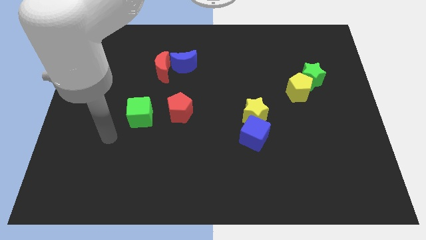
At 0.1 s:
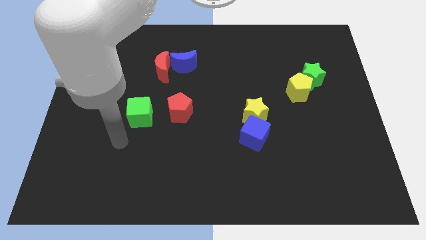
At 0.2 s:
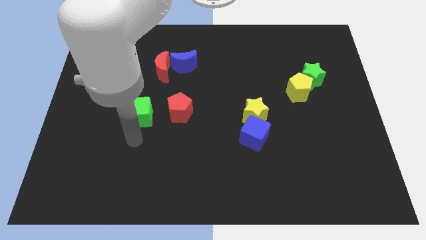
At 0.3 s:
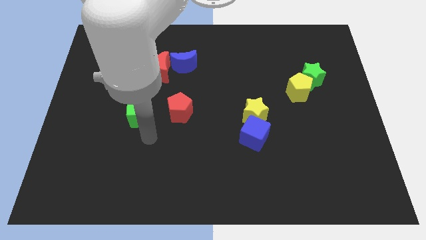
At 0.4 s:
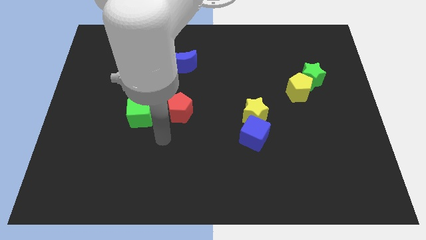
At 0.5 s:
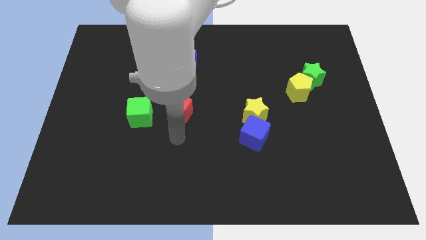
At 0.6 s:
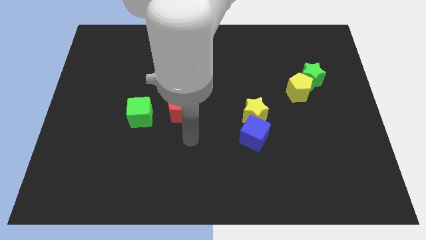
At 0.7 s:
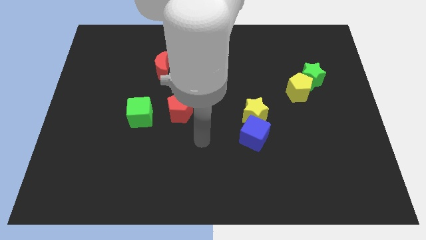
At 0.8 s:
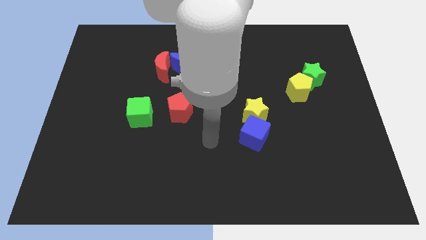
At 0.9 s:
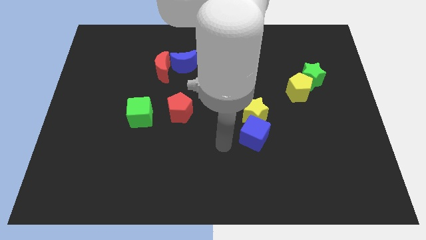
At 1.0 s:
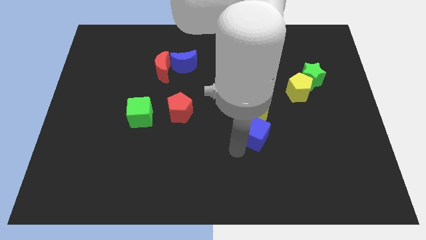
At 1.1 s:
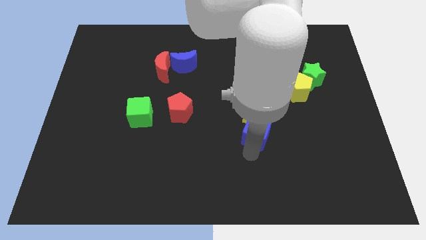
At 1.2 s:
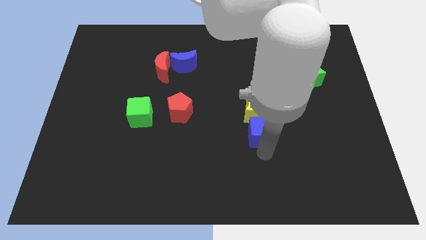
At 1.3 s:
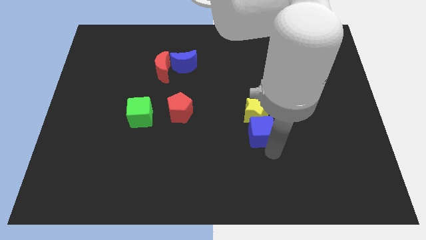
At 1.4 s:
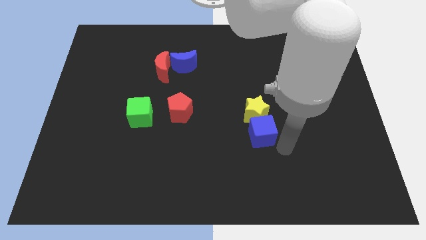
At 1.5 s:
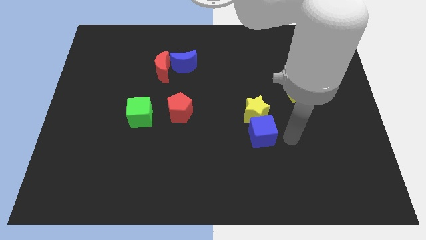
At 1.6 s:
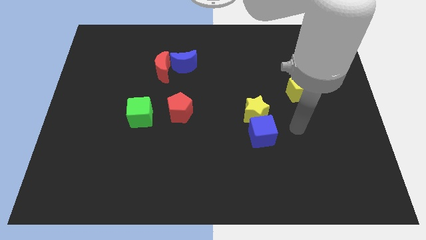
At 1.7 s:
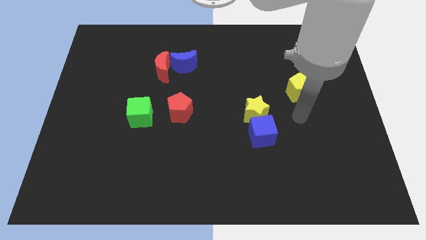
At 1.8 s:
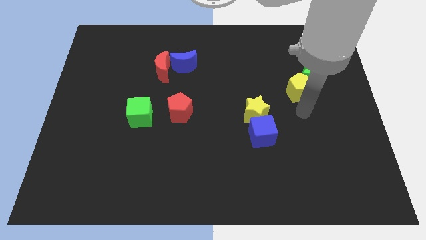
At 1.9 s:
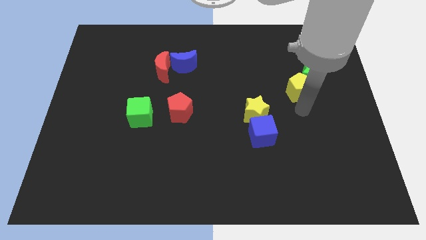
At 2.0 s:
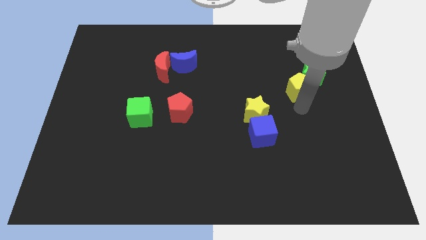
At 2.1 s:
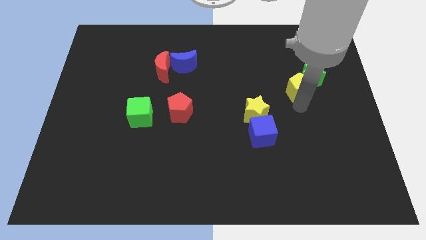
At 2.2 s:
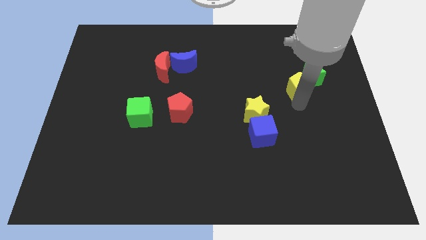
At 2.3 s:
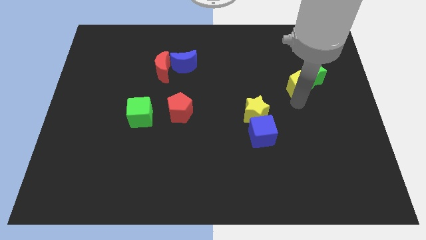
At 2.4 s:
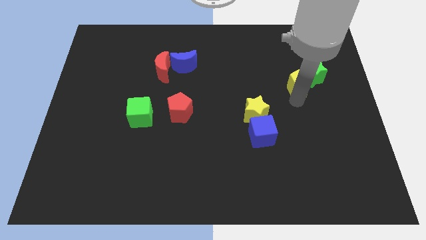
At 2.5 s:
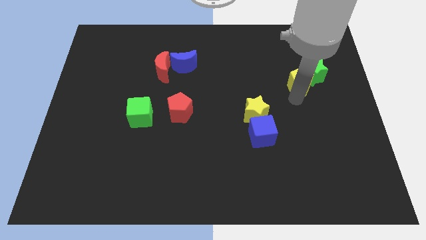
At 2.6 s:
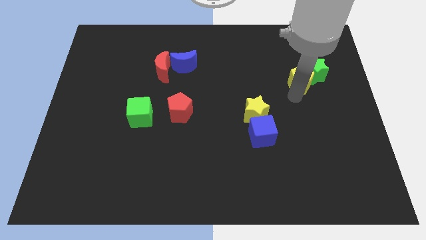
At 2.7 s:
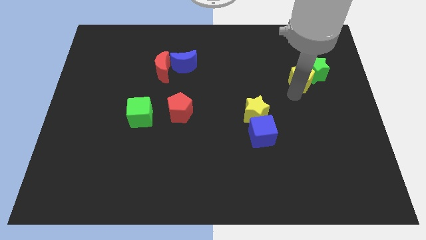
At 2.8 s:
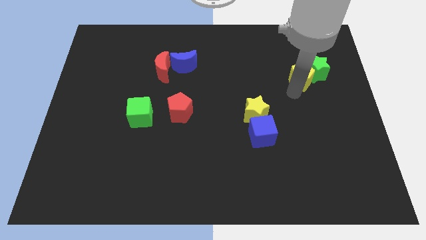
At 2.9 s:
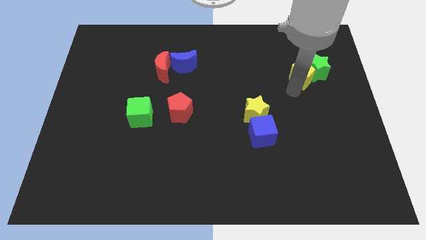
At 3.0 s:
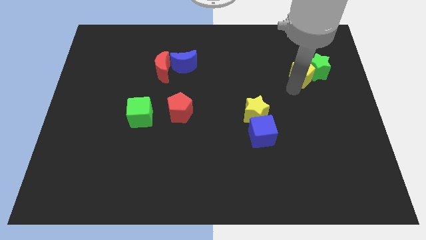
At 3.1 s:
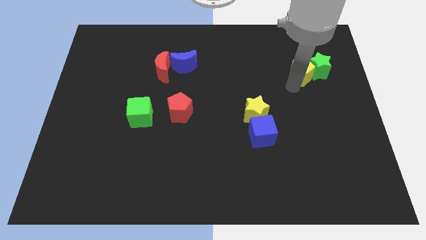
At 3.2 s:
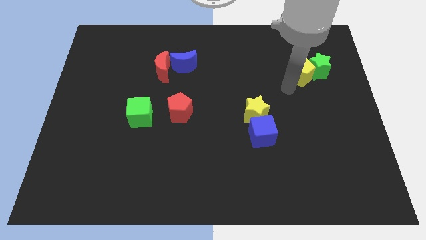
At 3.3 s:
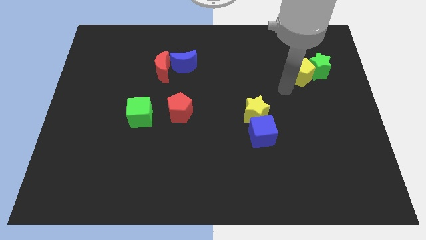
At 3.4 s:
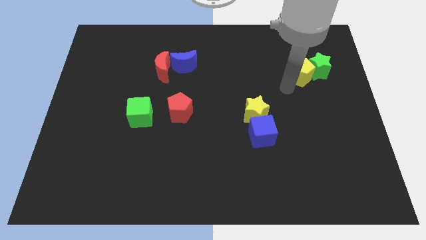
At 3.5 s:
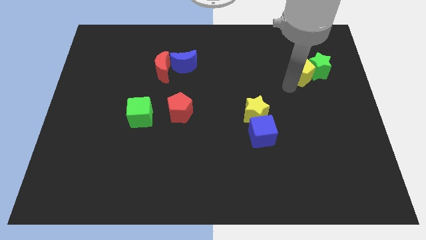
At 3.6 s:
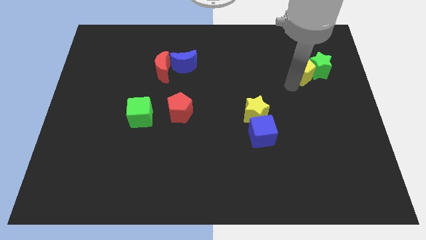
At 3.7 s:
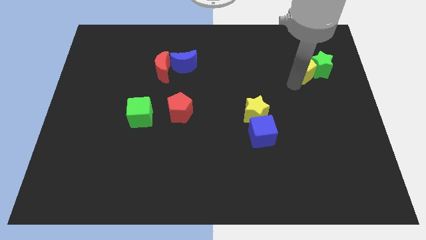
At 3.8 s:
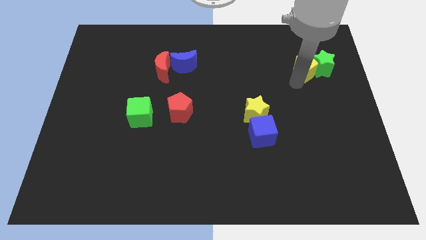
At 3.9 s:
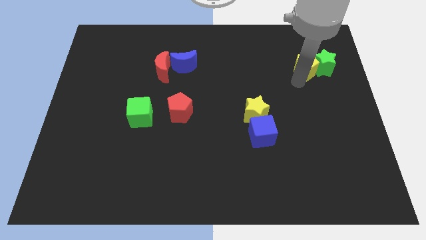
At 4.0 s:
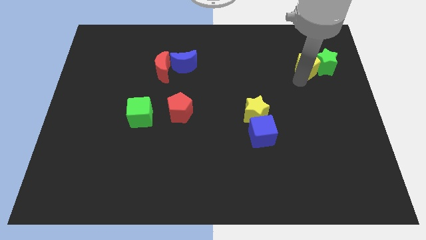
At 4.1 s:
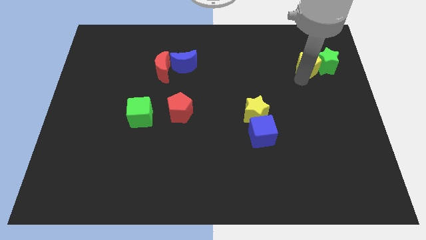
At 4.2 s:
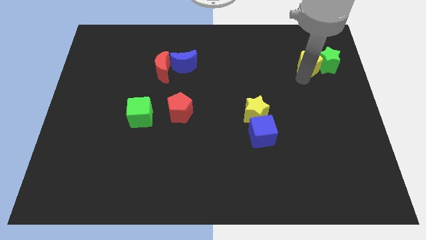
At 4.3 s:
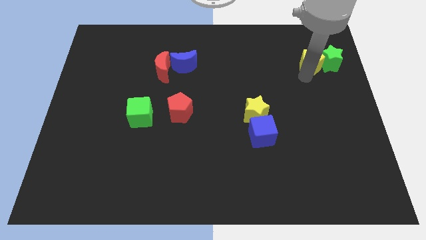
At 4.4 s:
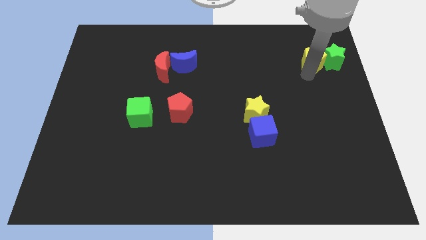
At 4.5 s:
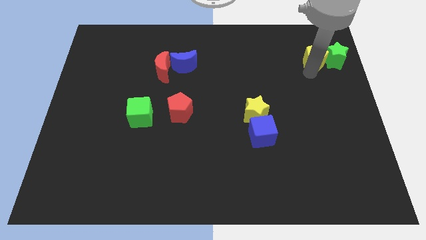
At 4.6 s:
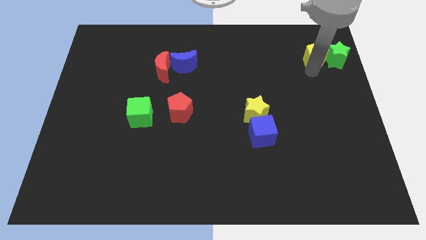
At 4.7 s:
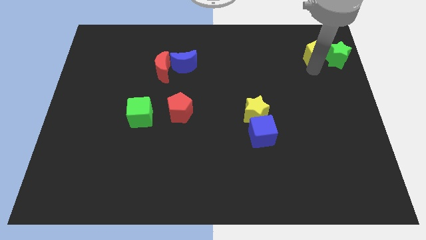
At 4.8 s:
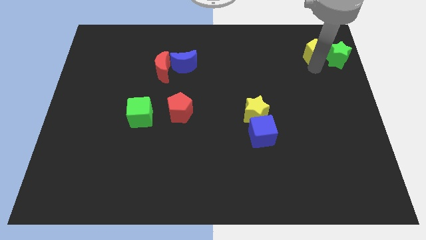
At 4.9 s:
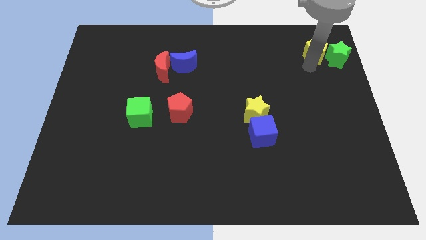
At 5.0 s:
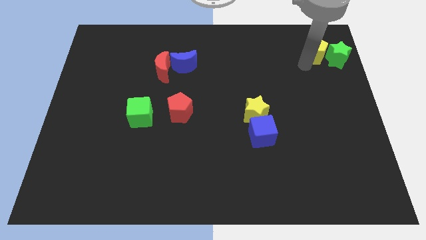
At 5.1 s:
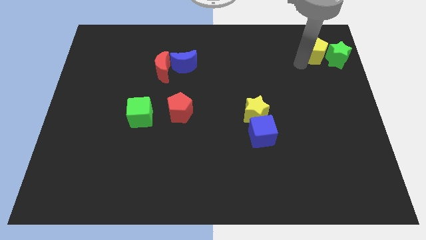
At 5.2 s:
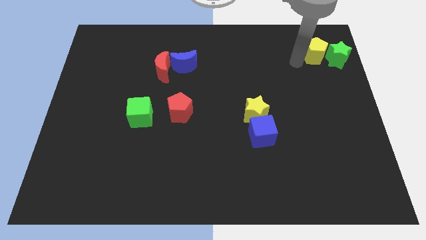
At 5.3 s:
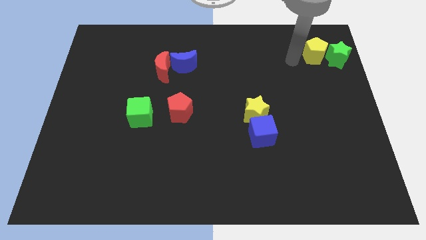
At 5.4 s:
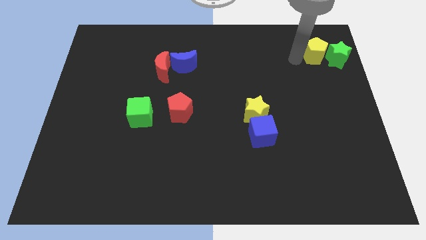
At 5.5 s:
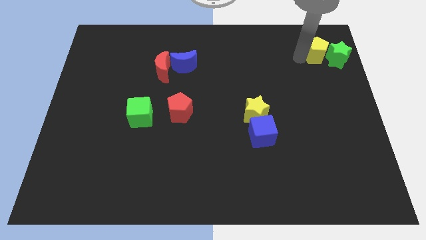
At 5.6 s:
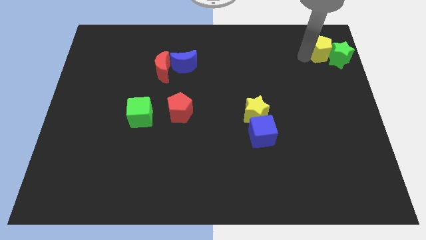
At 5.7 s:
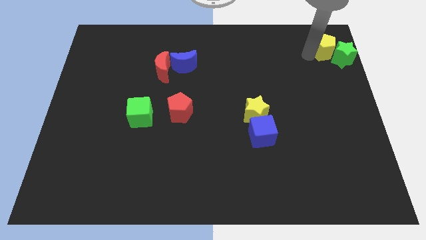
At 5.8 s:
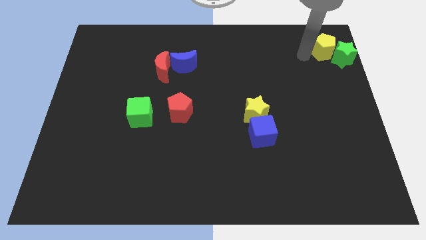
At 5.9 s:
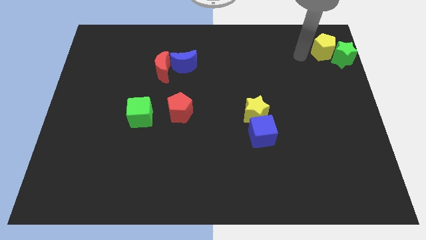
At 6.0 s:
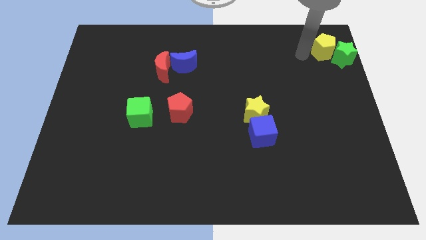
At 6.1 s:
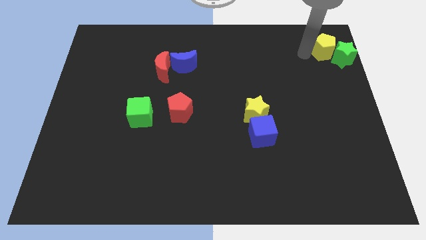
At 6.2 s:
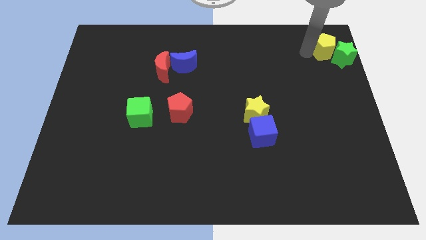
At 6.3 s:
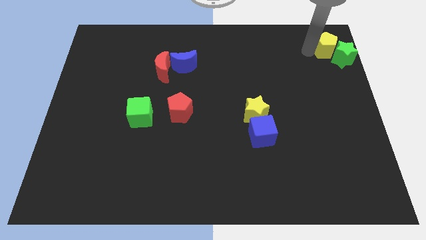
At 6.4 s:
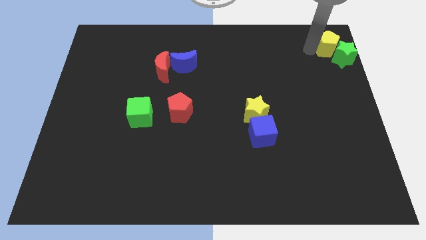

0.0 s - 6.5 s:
push the yellow pentagon to the top right
